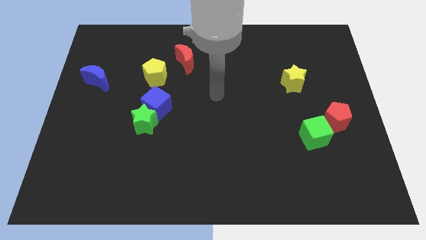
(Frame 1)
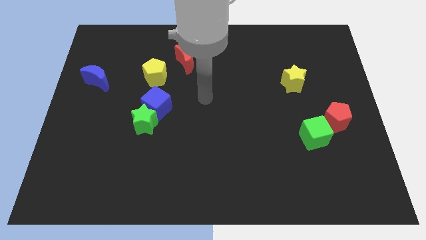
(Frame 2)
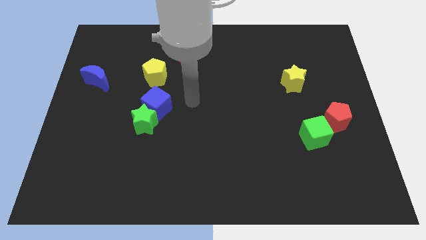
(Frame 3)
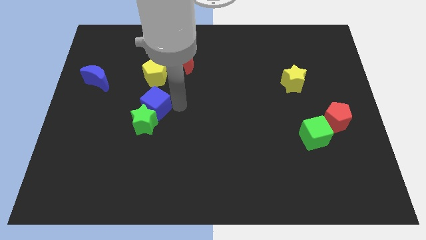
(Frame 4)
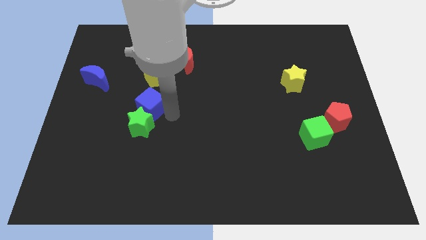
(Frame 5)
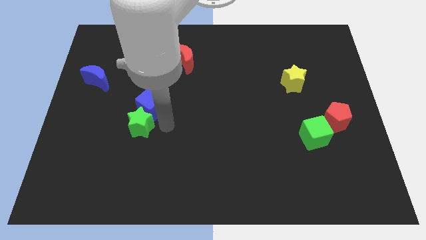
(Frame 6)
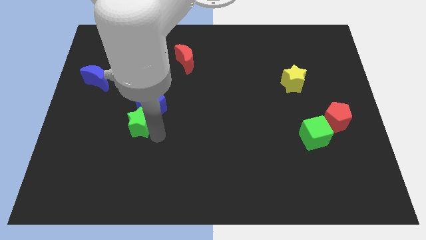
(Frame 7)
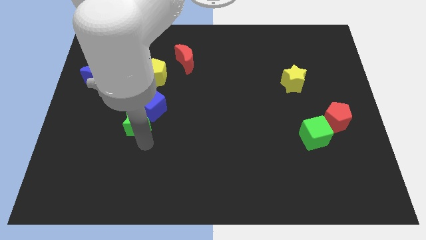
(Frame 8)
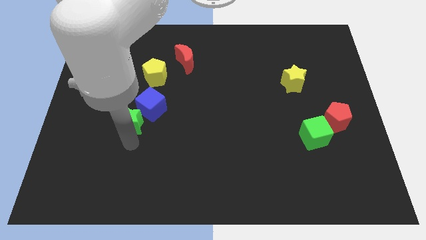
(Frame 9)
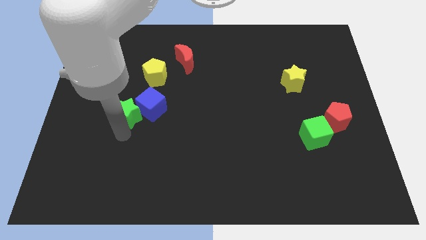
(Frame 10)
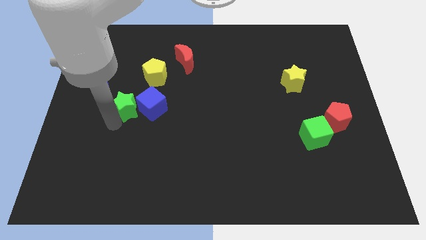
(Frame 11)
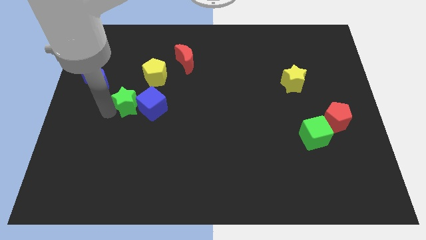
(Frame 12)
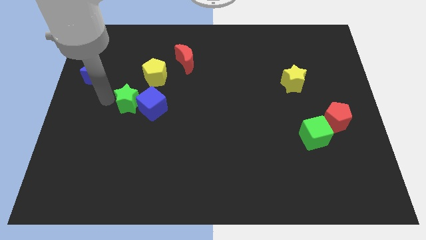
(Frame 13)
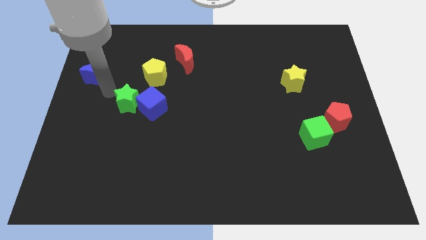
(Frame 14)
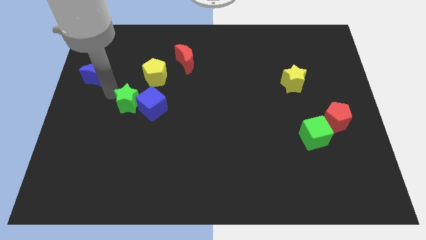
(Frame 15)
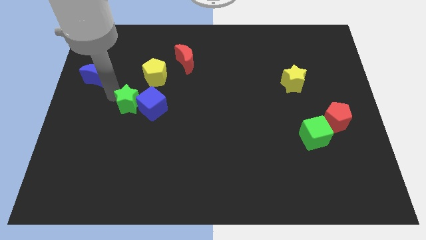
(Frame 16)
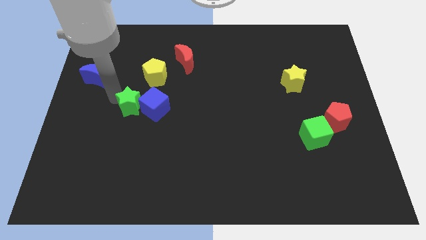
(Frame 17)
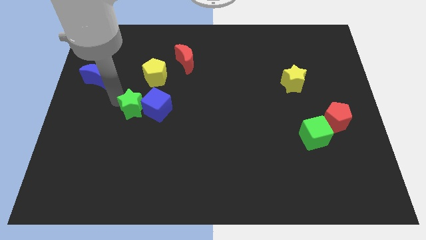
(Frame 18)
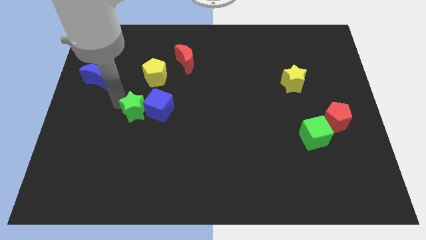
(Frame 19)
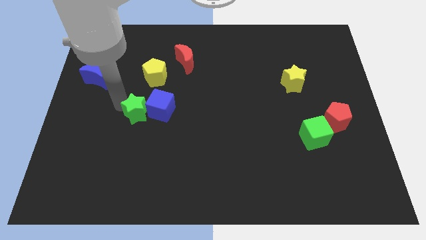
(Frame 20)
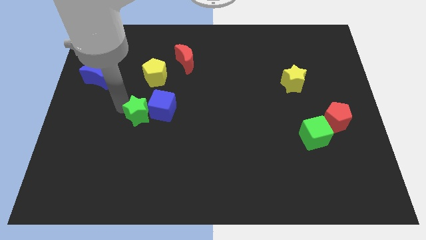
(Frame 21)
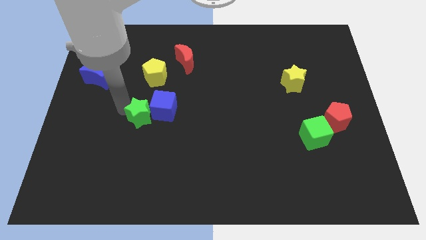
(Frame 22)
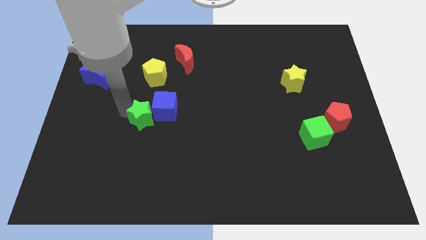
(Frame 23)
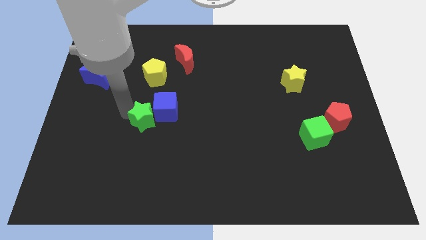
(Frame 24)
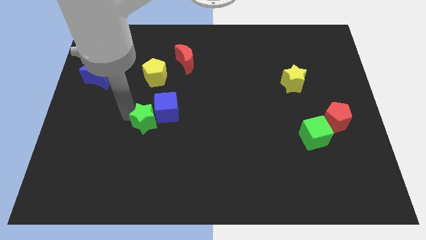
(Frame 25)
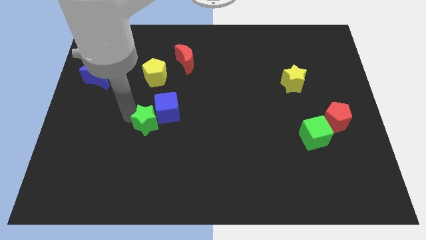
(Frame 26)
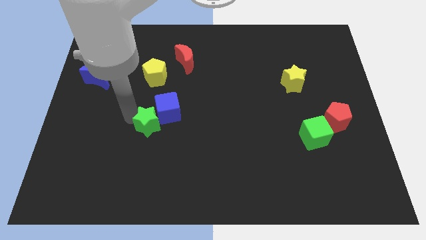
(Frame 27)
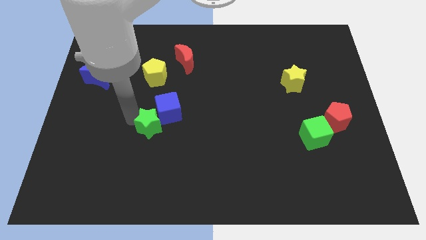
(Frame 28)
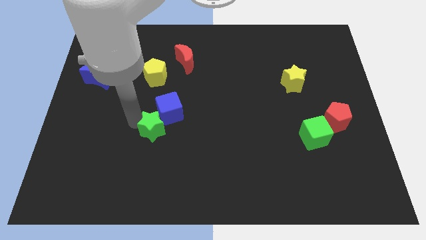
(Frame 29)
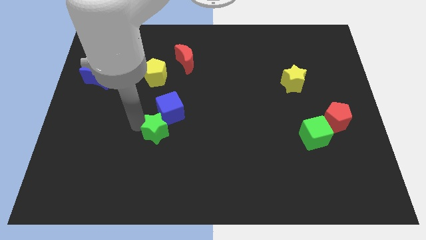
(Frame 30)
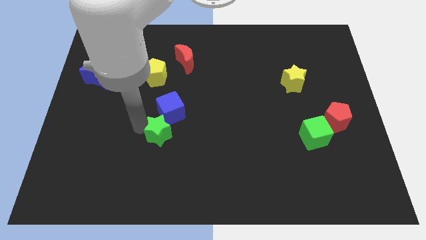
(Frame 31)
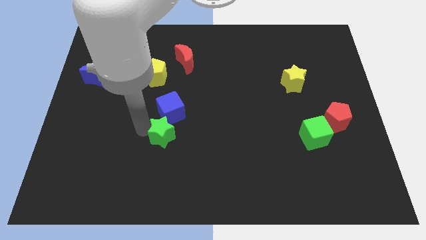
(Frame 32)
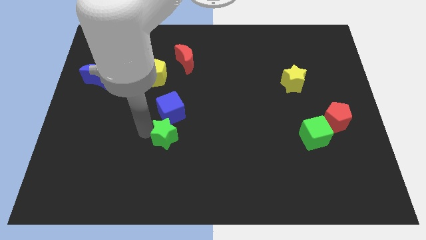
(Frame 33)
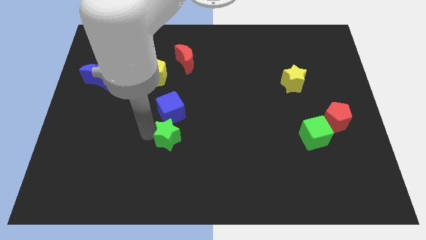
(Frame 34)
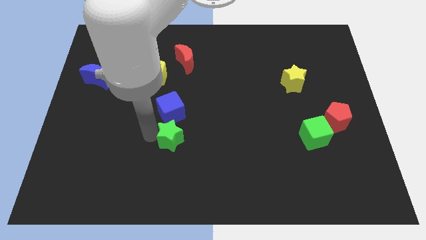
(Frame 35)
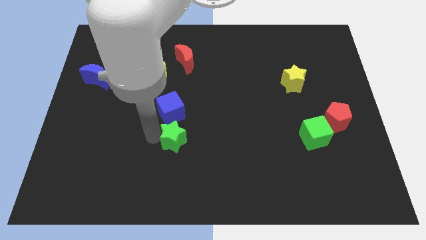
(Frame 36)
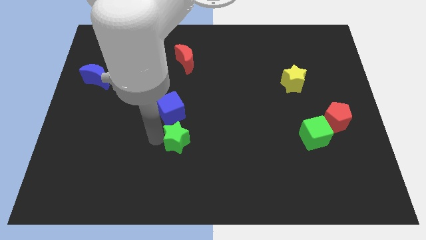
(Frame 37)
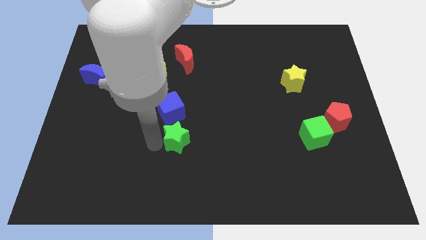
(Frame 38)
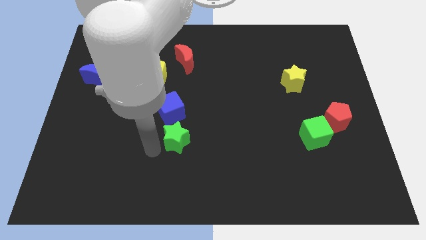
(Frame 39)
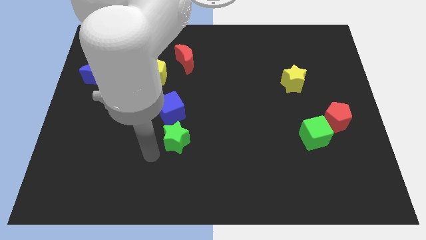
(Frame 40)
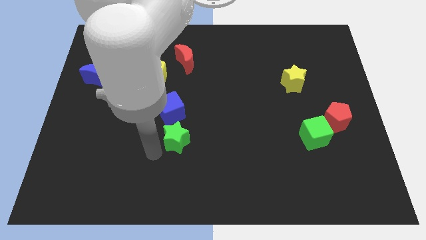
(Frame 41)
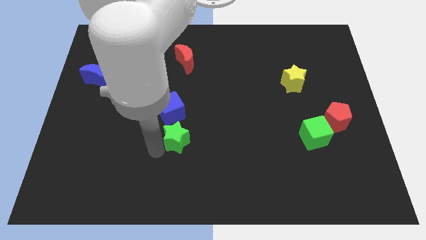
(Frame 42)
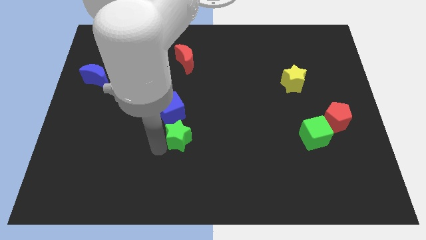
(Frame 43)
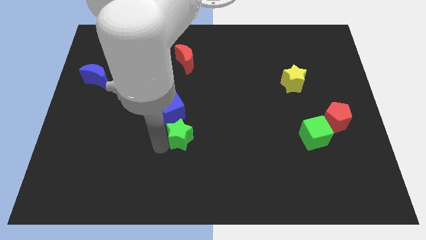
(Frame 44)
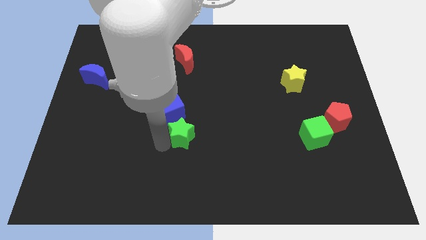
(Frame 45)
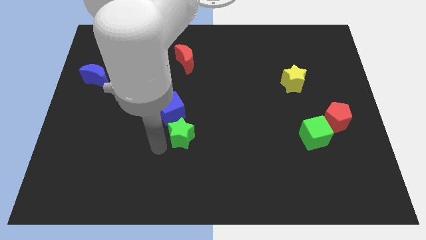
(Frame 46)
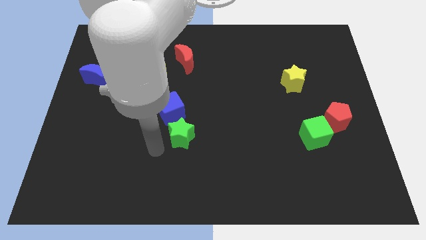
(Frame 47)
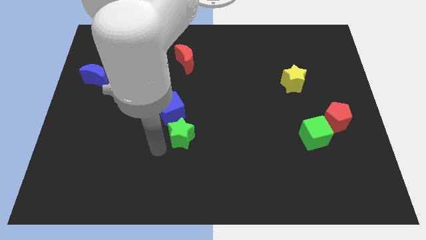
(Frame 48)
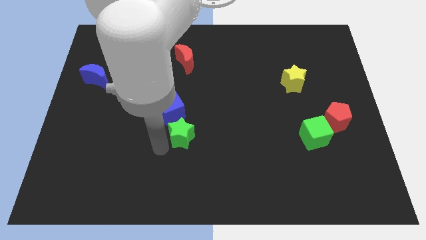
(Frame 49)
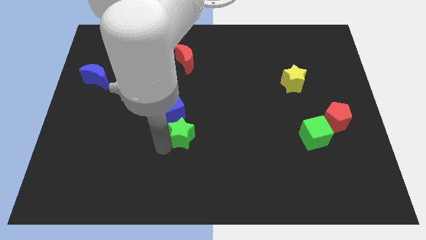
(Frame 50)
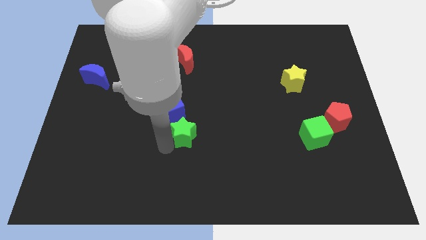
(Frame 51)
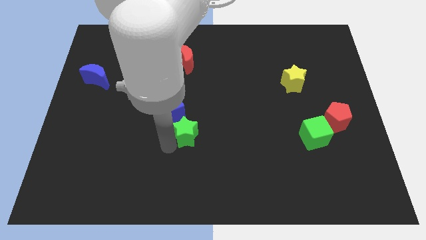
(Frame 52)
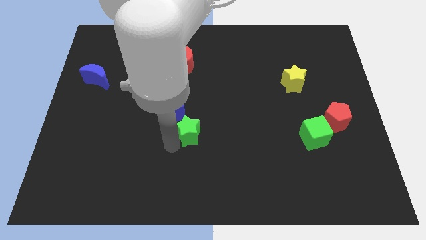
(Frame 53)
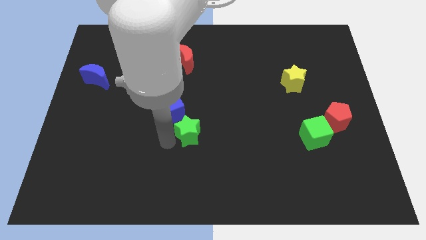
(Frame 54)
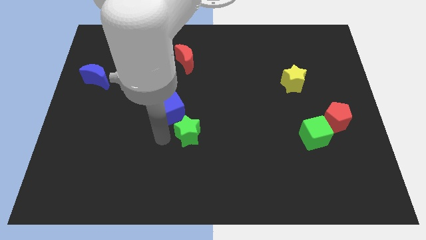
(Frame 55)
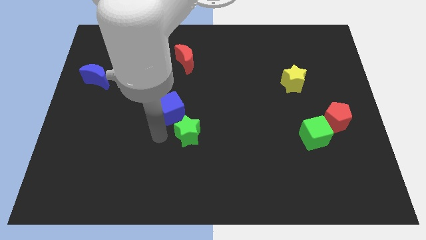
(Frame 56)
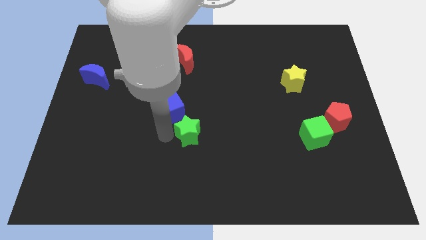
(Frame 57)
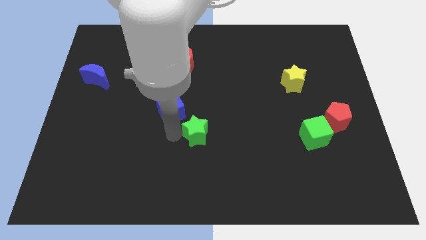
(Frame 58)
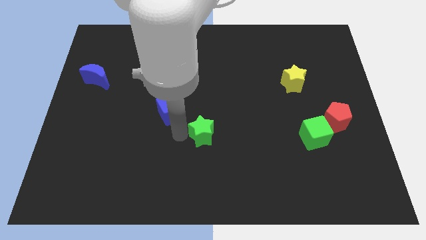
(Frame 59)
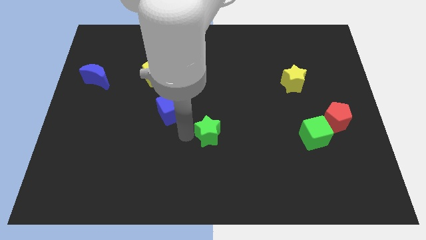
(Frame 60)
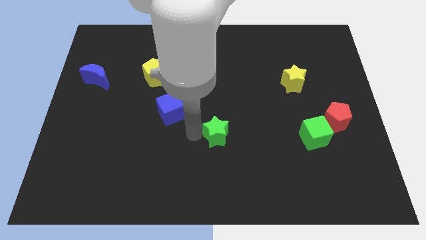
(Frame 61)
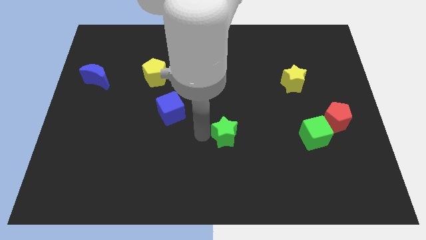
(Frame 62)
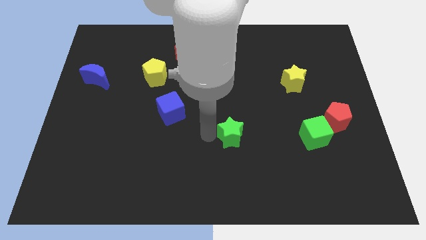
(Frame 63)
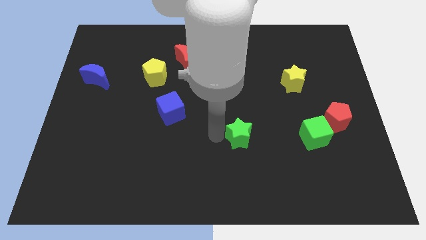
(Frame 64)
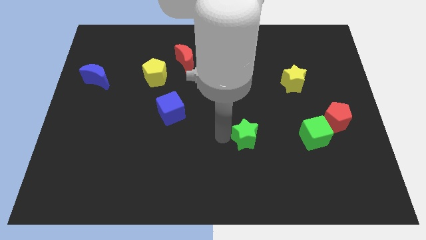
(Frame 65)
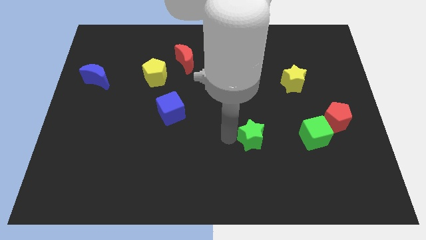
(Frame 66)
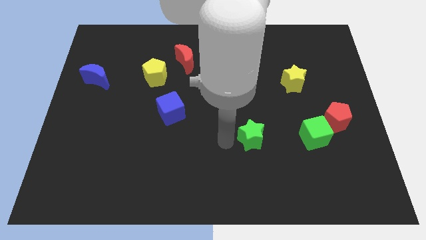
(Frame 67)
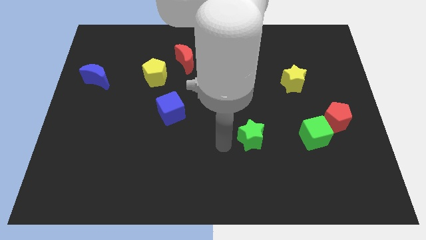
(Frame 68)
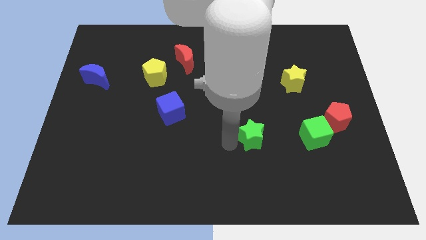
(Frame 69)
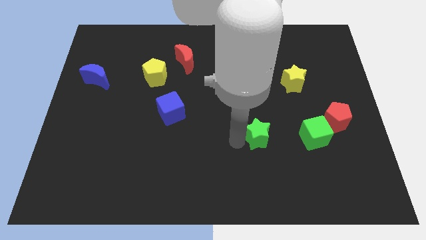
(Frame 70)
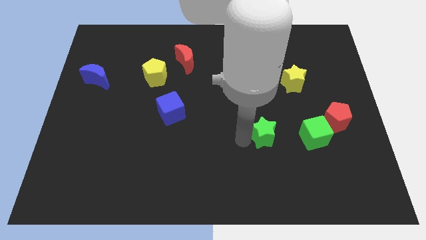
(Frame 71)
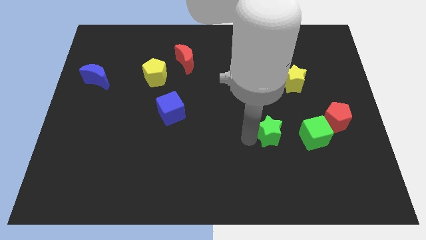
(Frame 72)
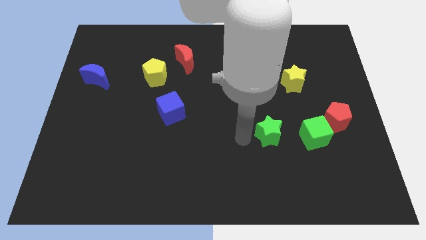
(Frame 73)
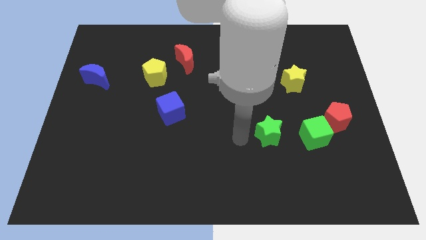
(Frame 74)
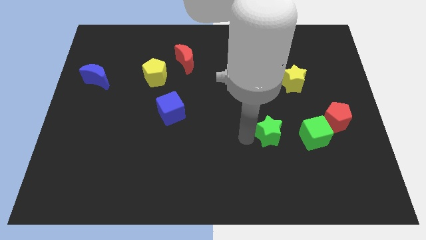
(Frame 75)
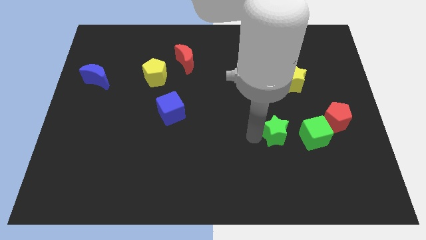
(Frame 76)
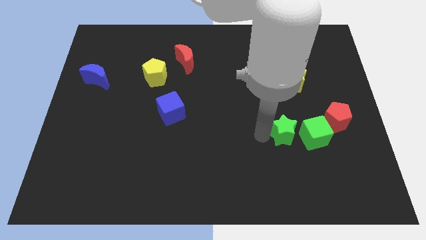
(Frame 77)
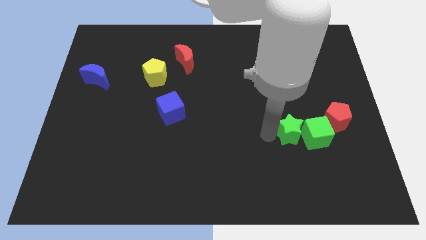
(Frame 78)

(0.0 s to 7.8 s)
put the green star close to the green cube
